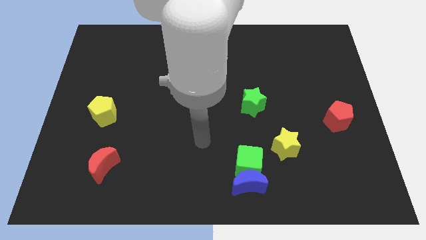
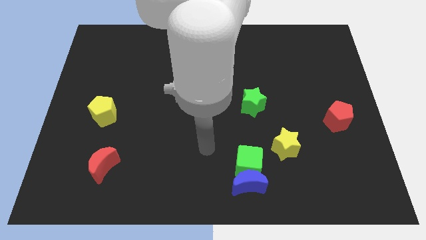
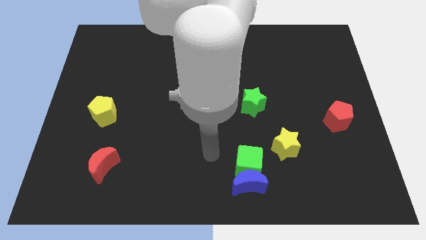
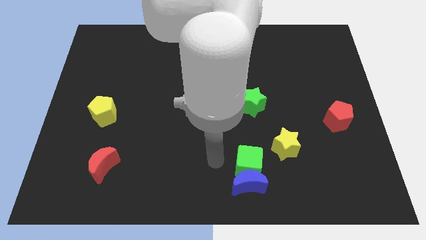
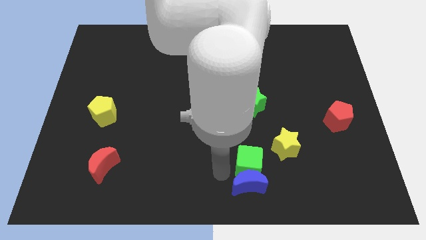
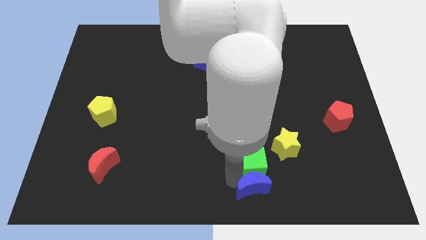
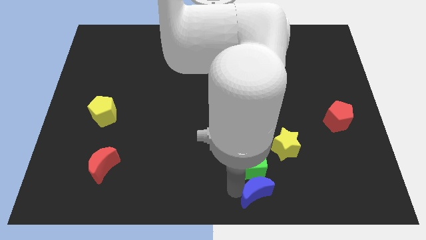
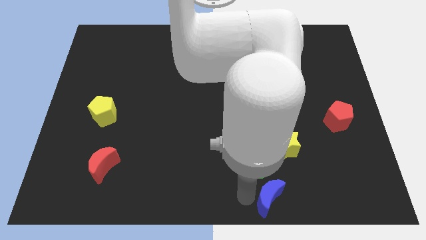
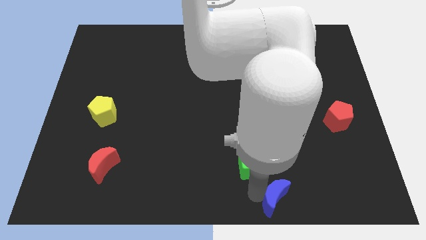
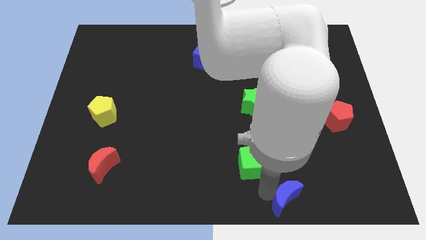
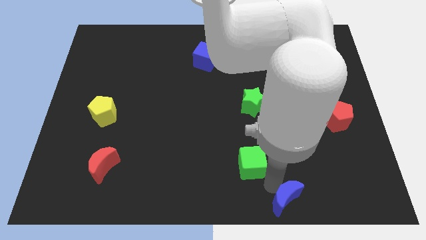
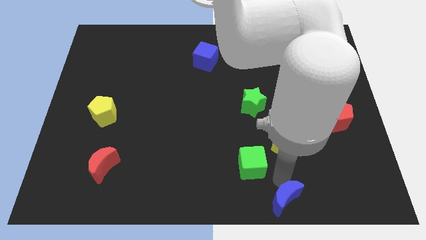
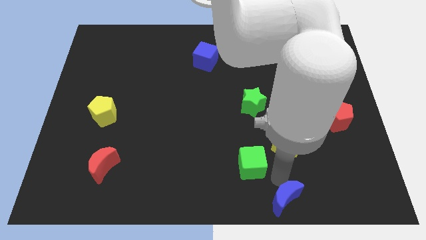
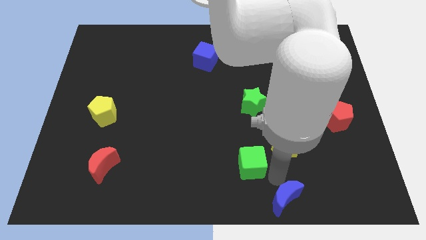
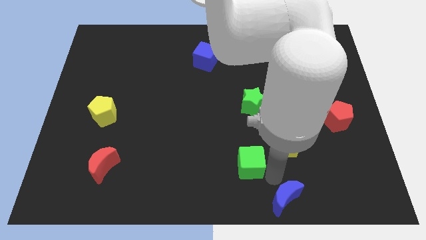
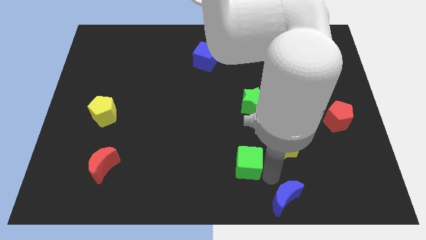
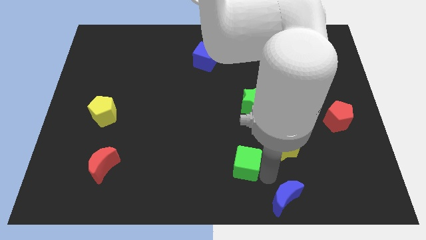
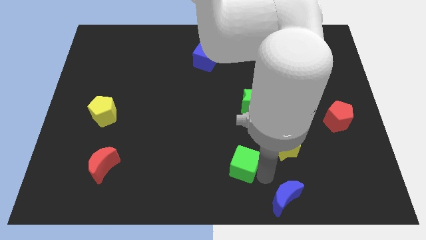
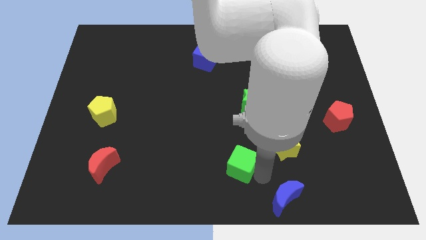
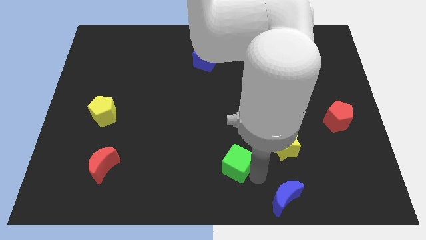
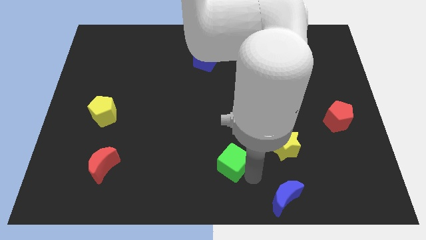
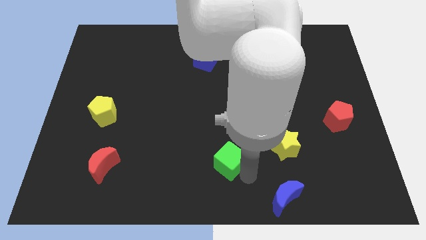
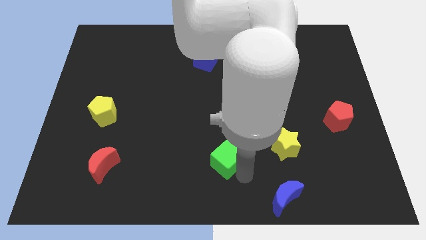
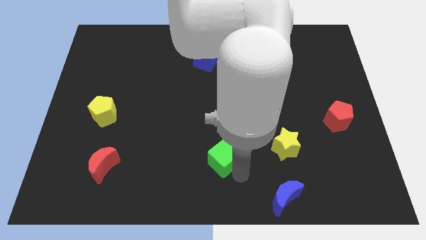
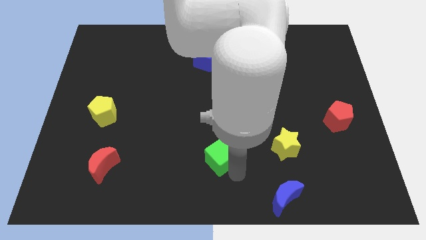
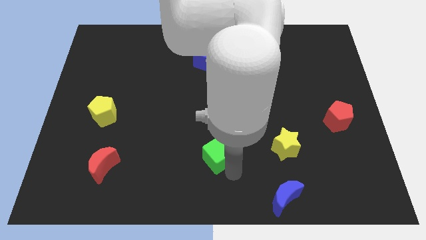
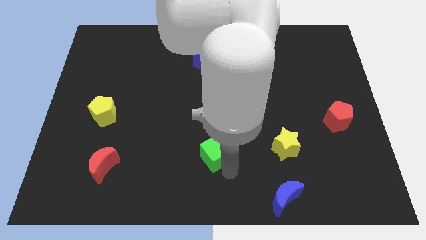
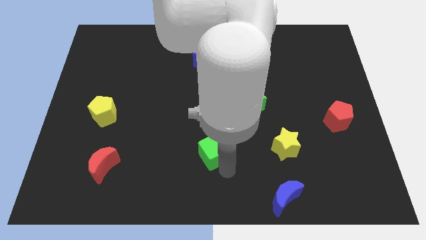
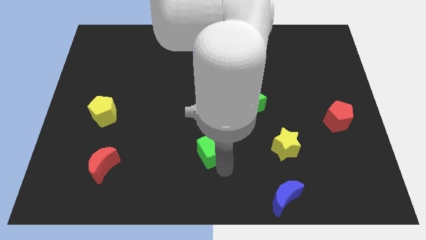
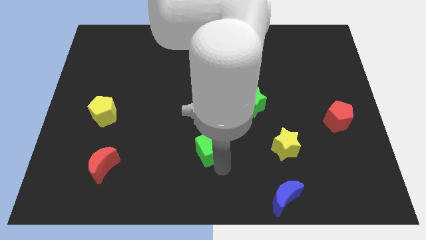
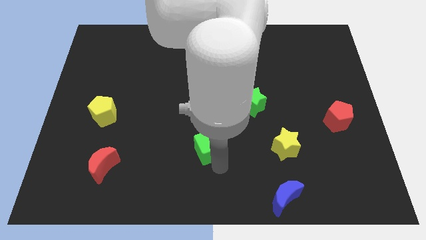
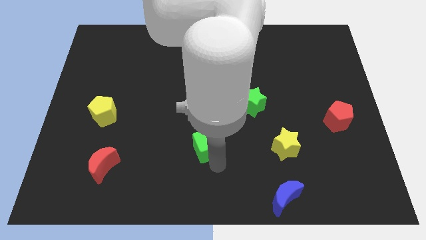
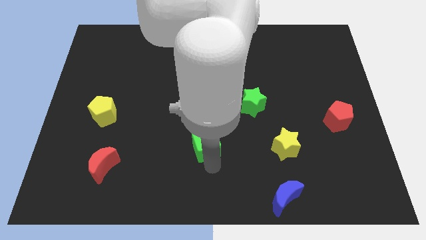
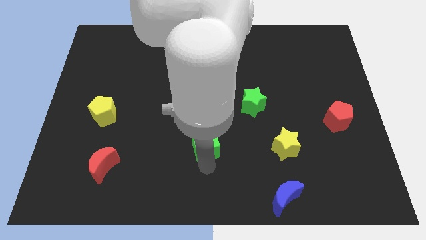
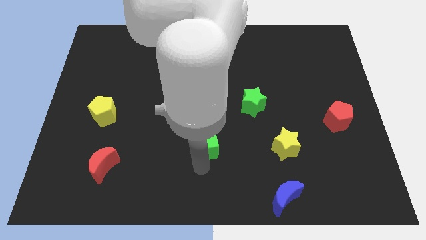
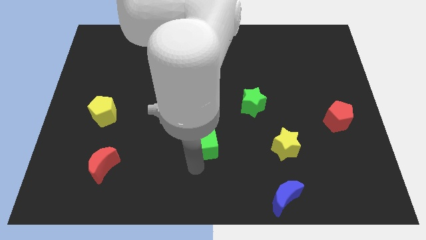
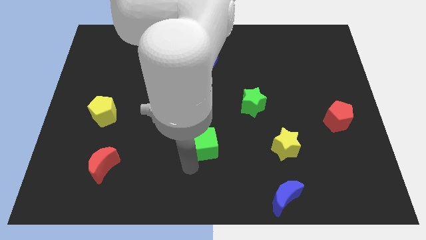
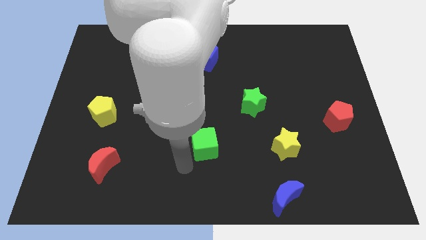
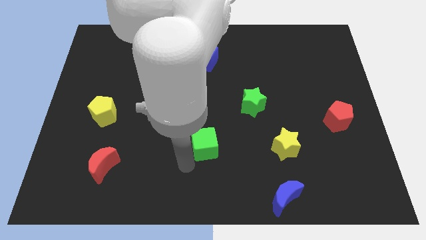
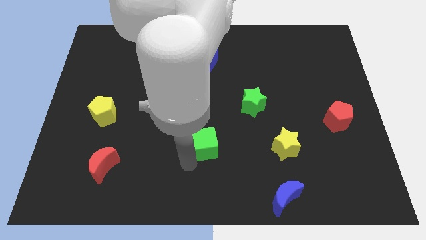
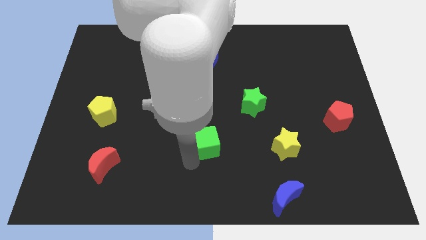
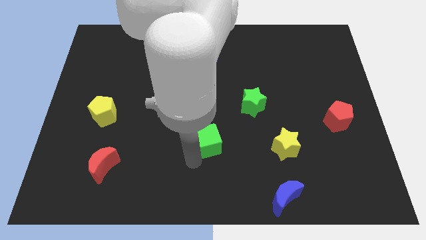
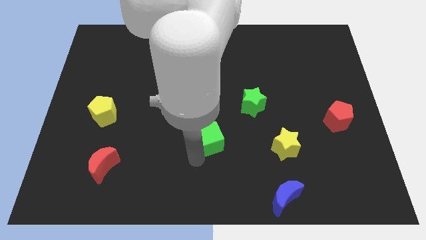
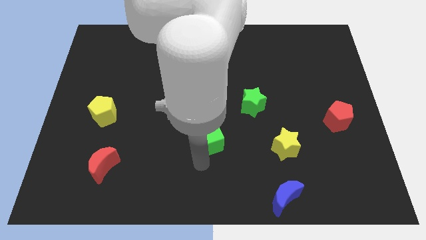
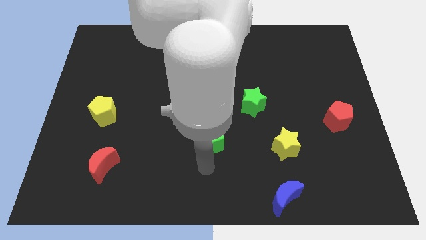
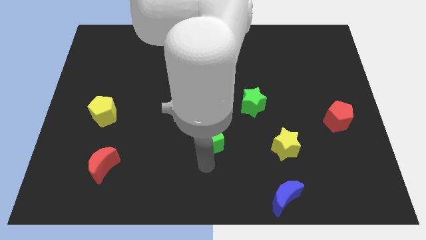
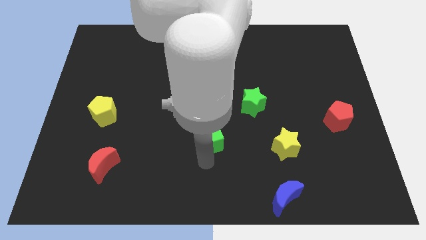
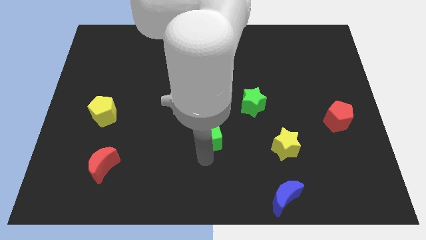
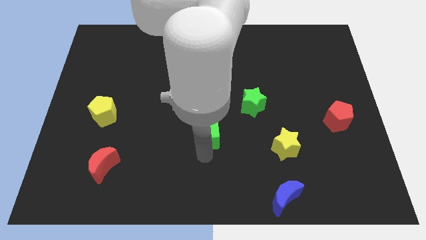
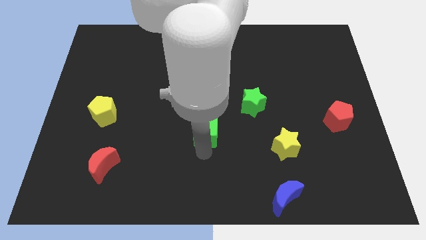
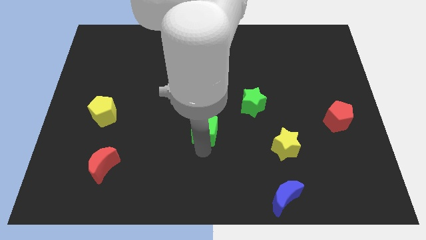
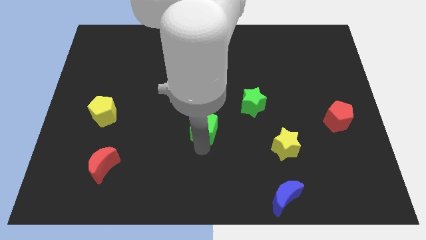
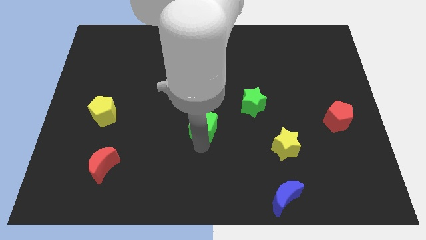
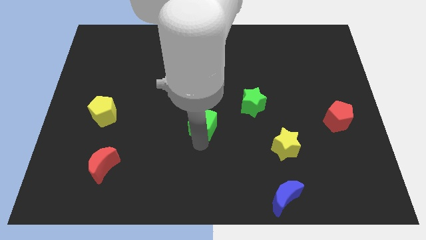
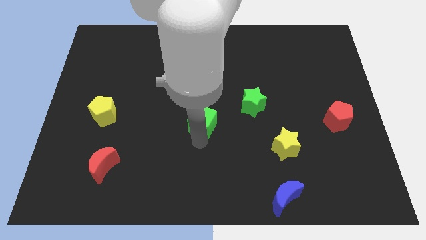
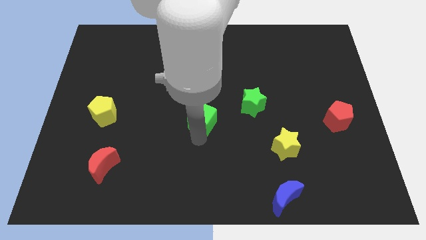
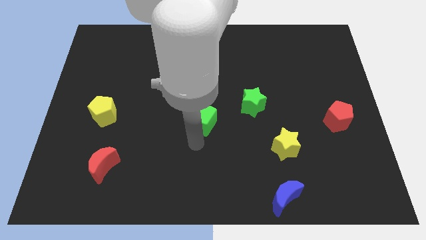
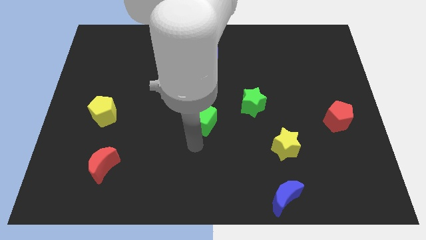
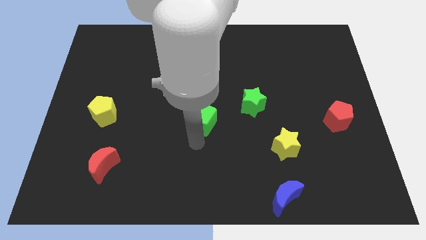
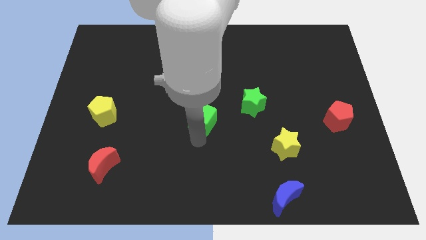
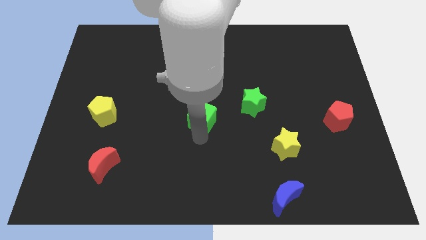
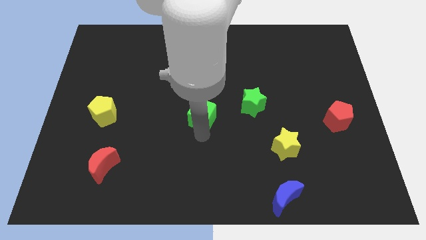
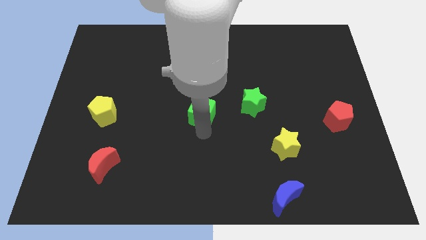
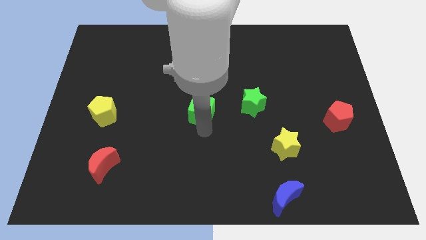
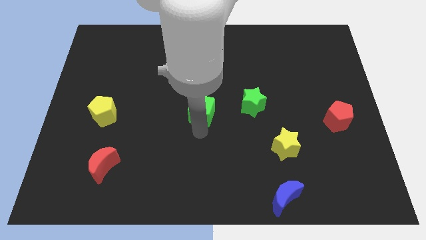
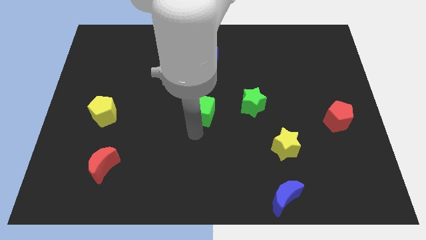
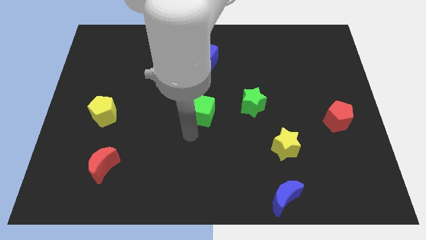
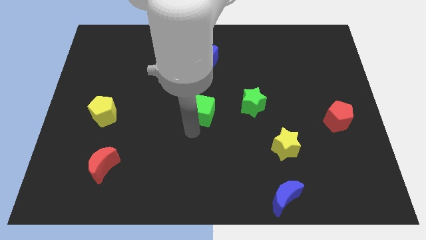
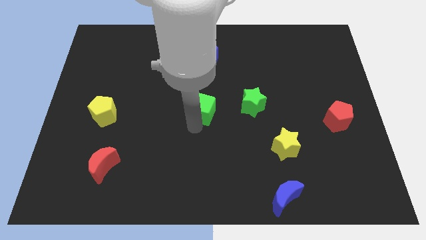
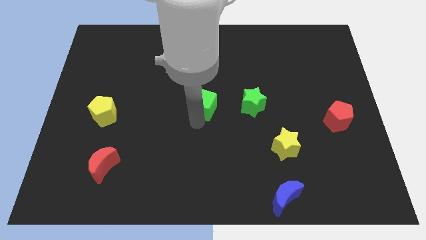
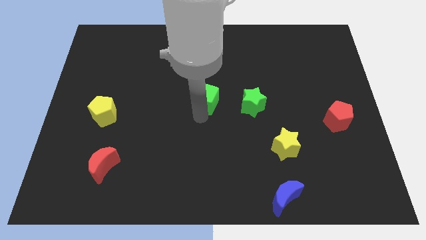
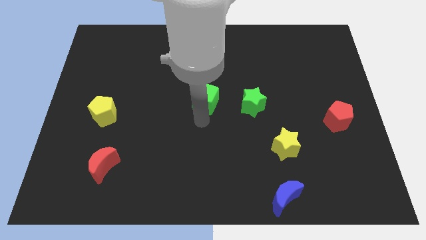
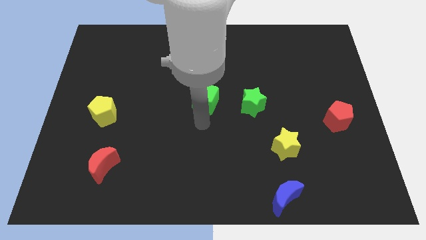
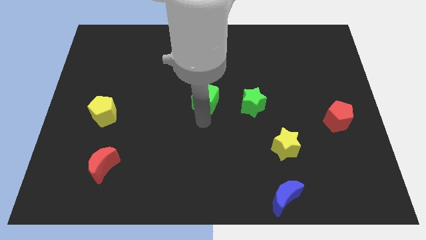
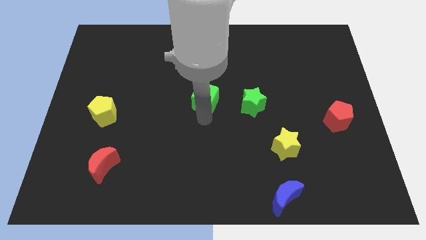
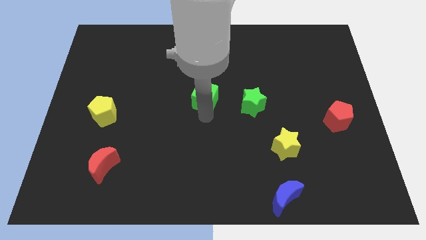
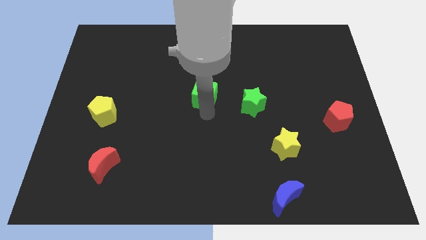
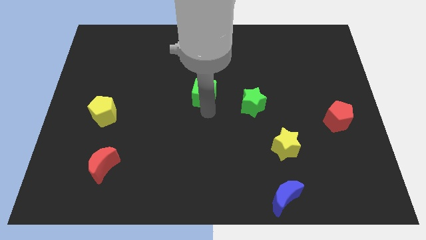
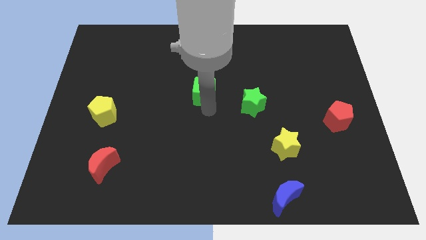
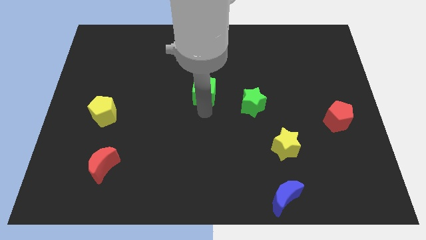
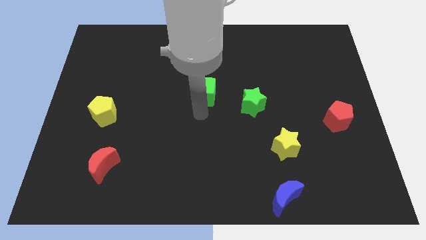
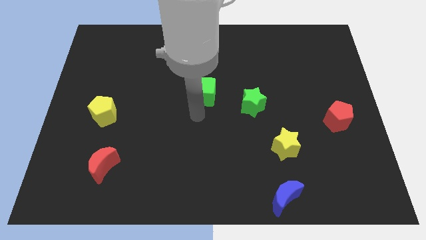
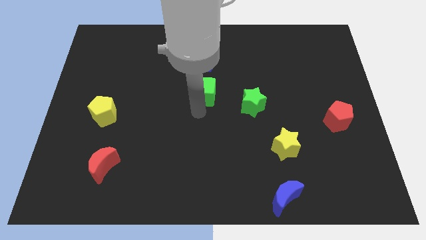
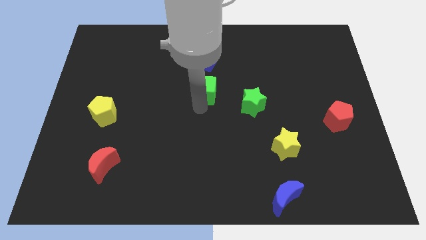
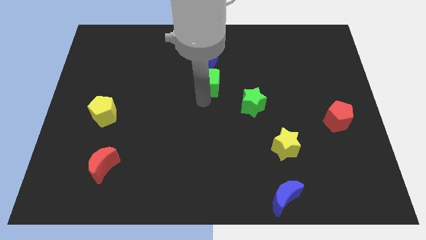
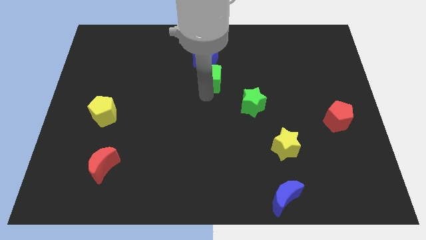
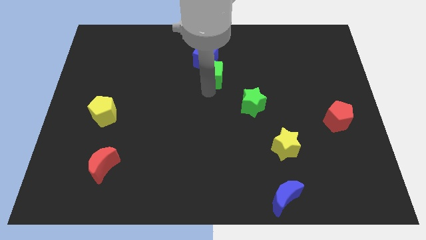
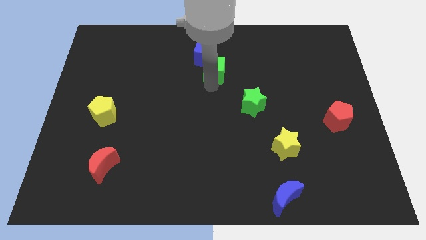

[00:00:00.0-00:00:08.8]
move the green cube next to the blue cube
